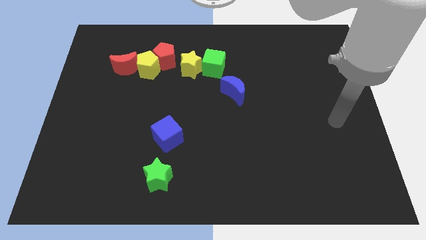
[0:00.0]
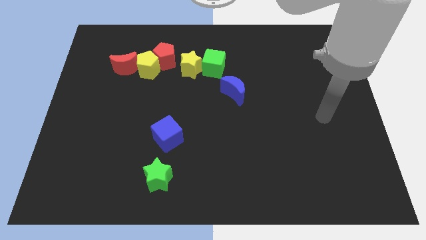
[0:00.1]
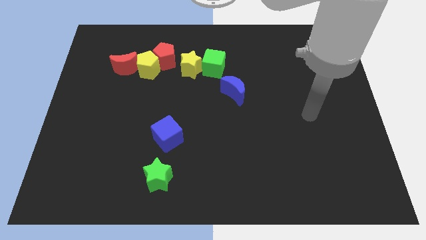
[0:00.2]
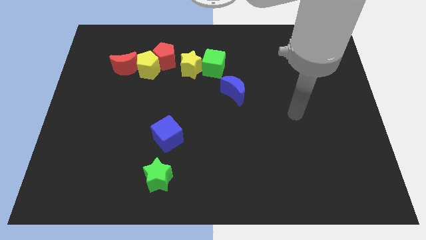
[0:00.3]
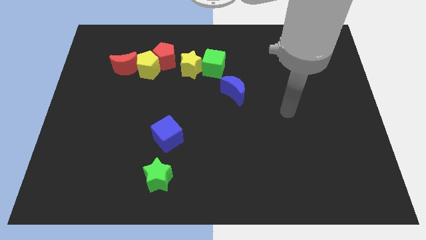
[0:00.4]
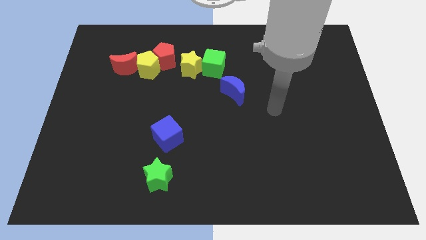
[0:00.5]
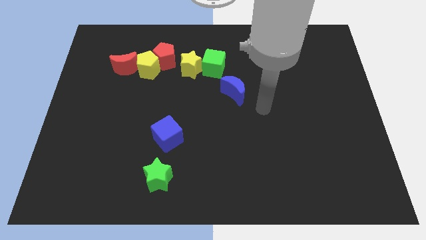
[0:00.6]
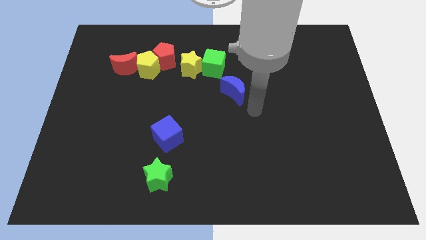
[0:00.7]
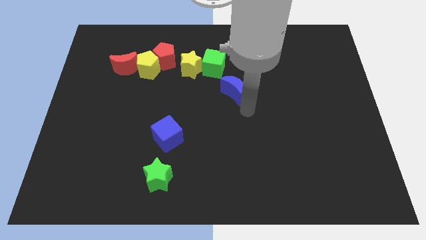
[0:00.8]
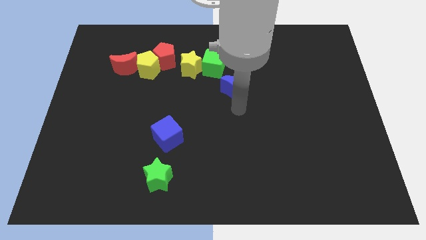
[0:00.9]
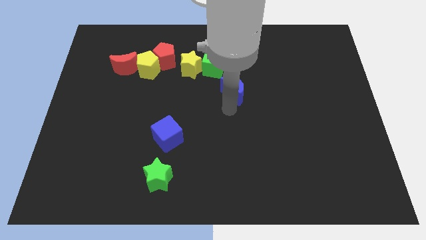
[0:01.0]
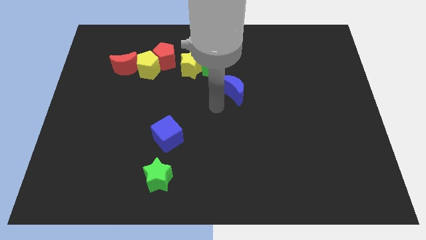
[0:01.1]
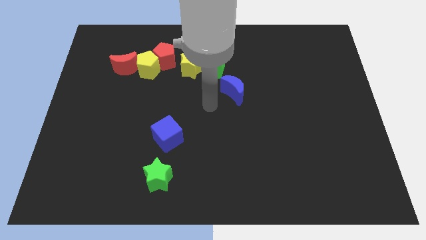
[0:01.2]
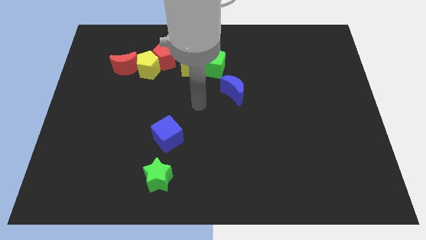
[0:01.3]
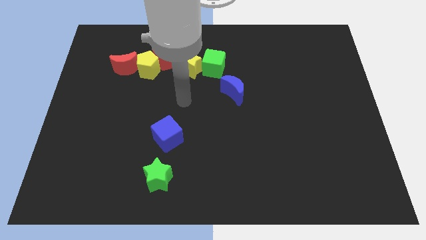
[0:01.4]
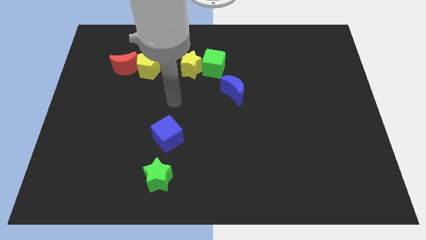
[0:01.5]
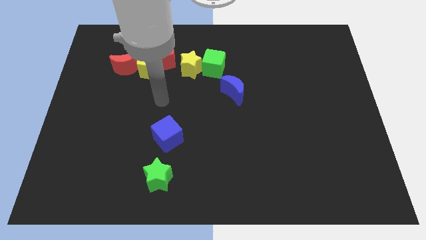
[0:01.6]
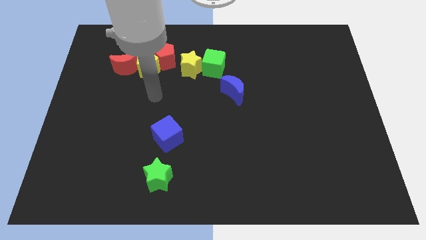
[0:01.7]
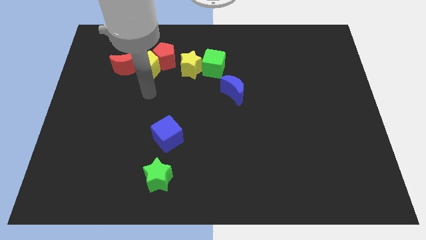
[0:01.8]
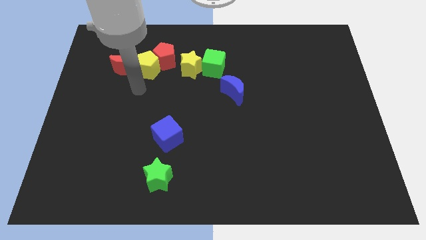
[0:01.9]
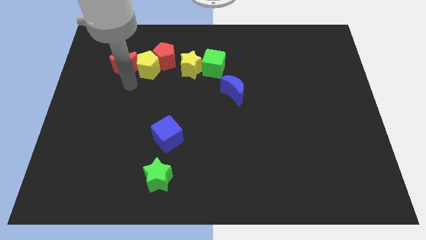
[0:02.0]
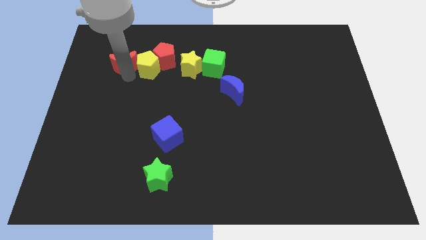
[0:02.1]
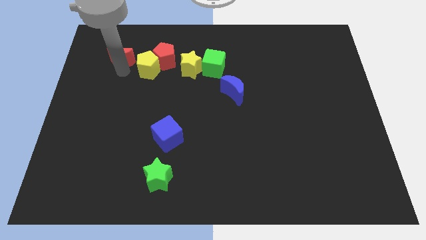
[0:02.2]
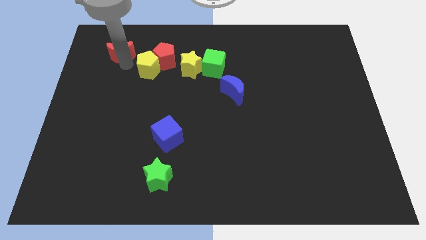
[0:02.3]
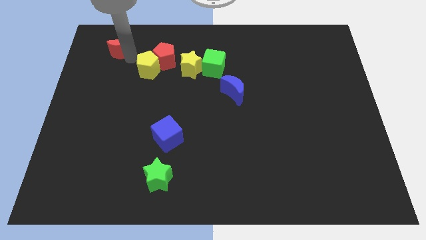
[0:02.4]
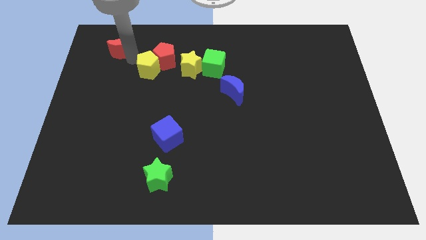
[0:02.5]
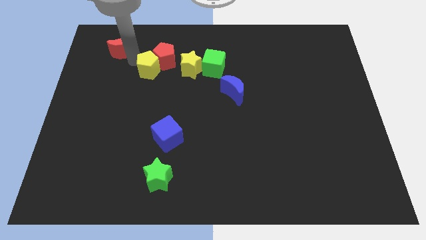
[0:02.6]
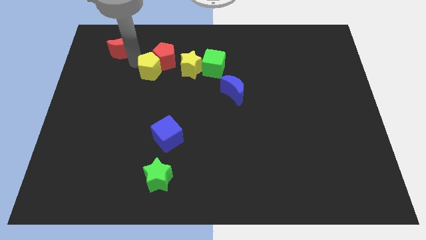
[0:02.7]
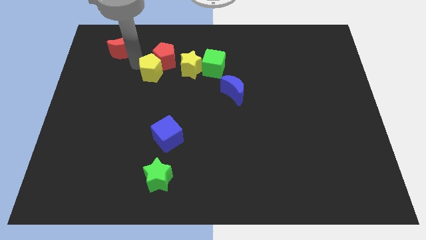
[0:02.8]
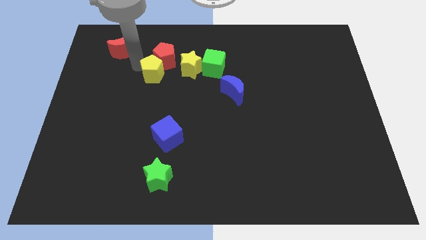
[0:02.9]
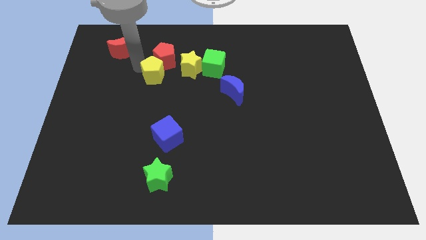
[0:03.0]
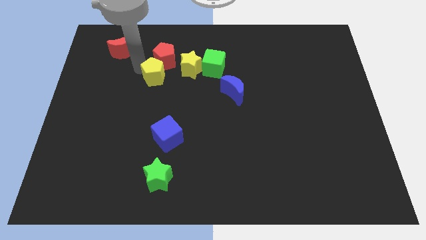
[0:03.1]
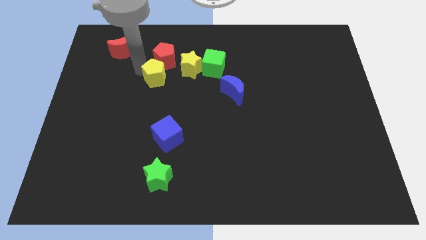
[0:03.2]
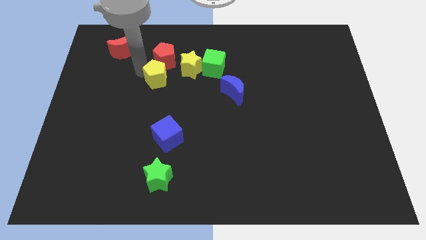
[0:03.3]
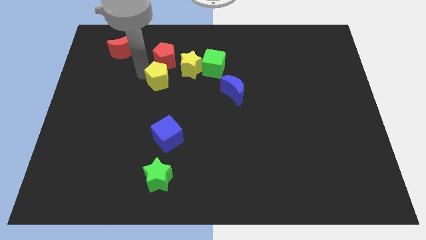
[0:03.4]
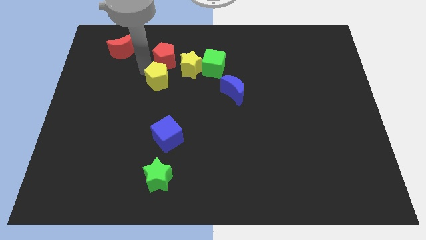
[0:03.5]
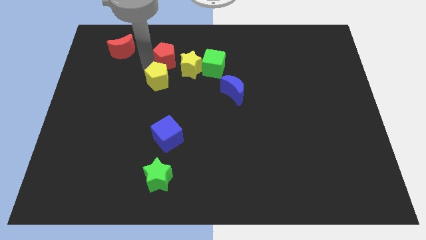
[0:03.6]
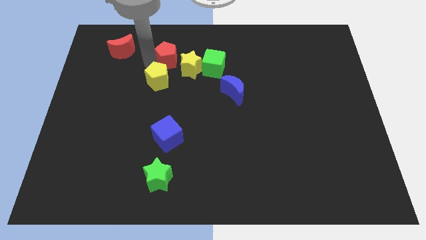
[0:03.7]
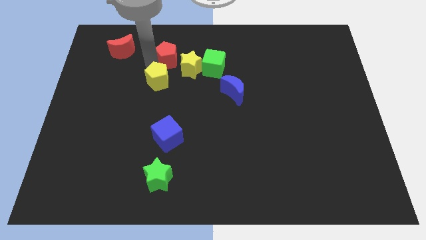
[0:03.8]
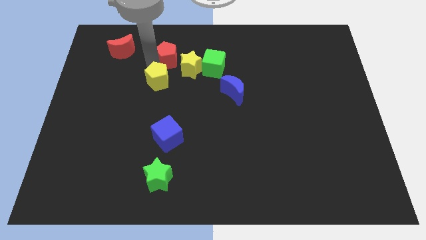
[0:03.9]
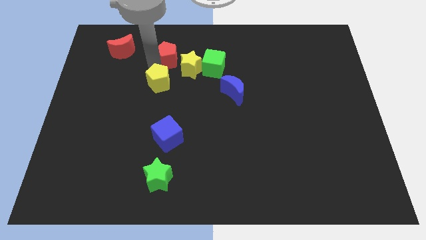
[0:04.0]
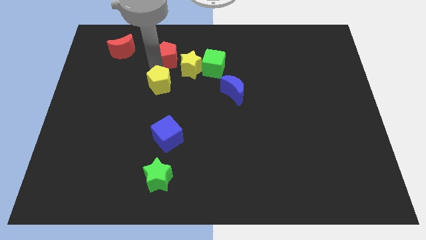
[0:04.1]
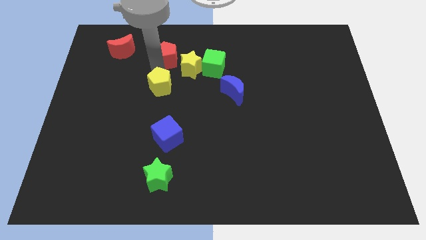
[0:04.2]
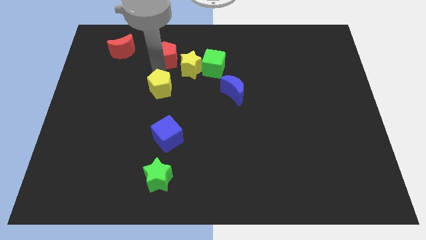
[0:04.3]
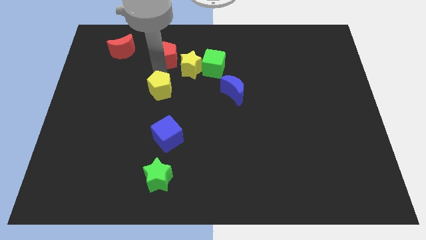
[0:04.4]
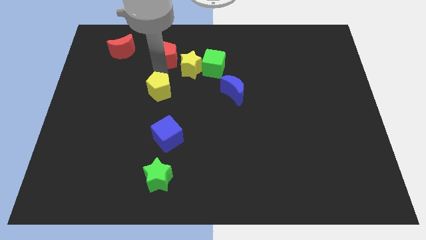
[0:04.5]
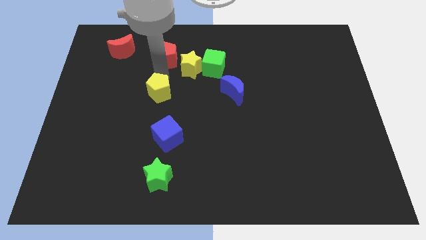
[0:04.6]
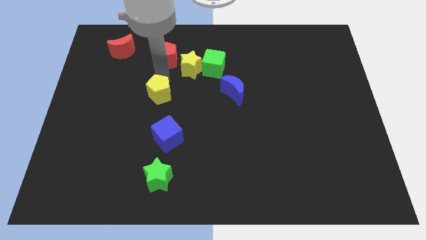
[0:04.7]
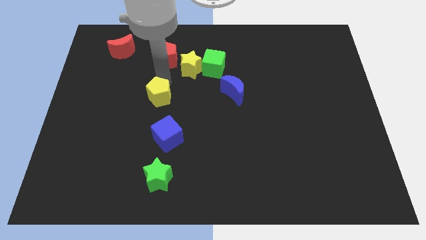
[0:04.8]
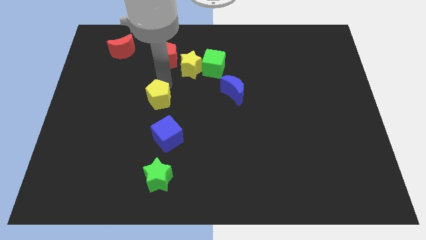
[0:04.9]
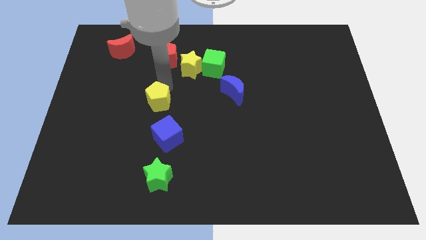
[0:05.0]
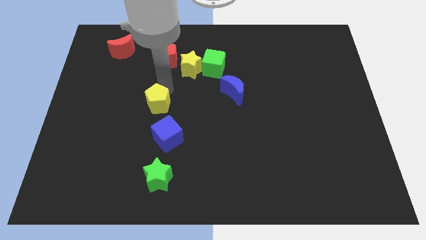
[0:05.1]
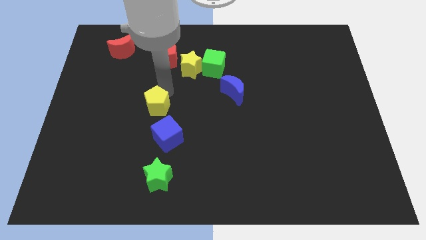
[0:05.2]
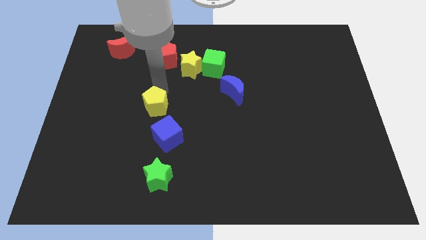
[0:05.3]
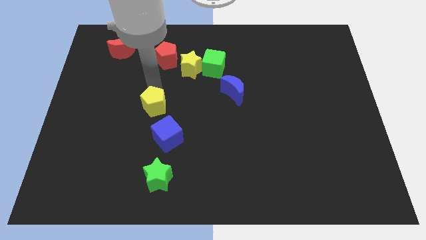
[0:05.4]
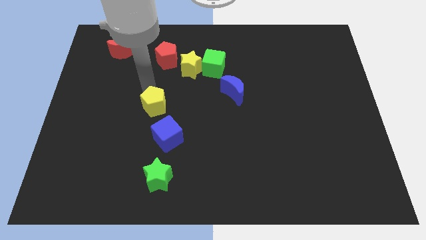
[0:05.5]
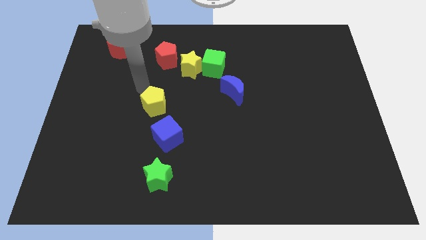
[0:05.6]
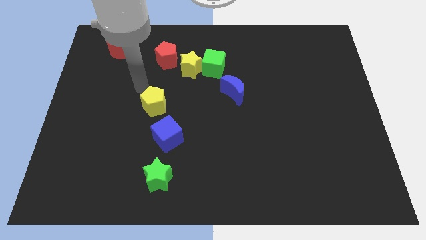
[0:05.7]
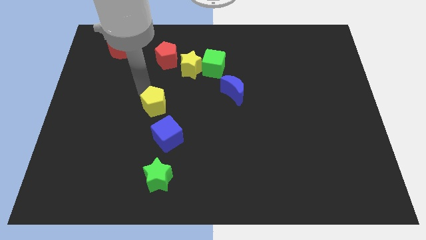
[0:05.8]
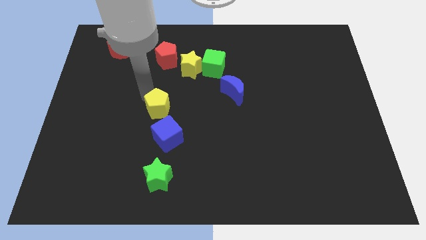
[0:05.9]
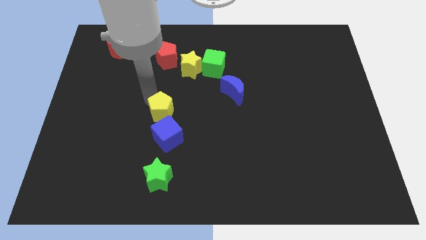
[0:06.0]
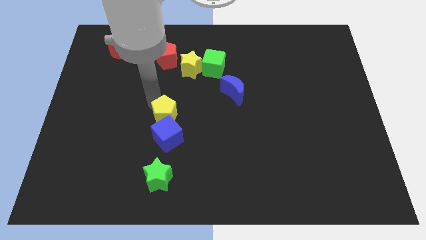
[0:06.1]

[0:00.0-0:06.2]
push the yellow pentagon close to the blue cube

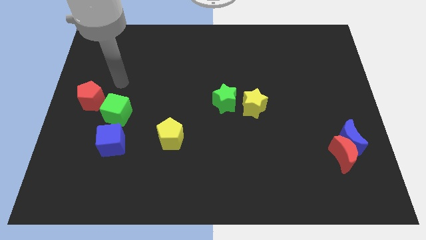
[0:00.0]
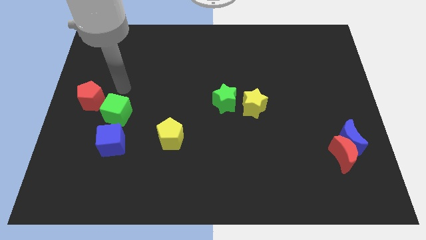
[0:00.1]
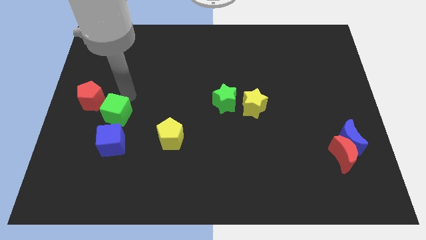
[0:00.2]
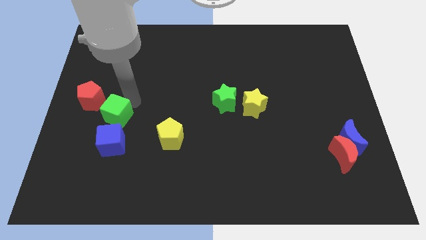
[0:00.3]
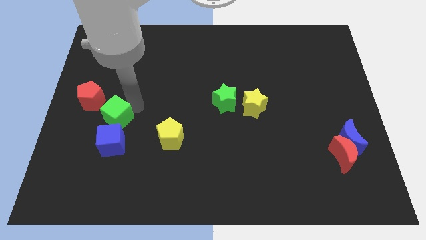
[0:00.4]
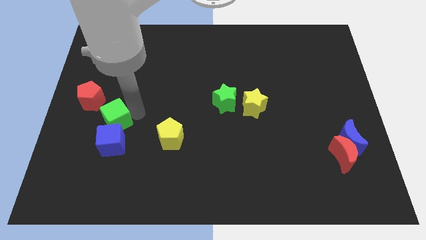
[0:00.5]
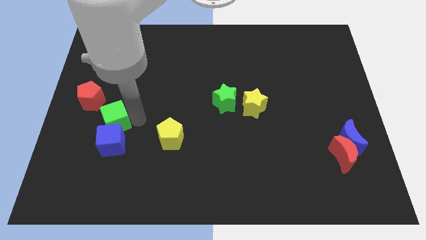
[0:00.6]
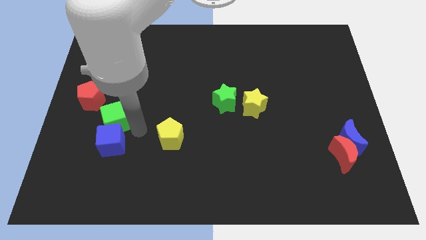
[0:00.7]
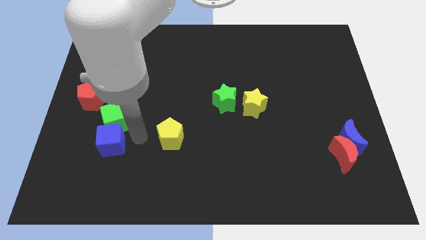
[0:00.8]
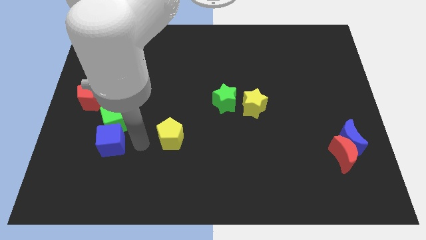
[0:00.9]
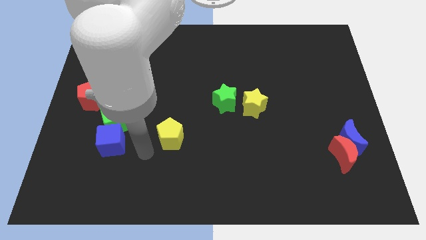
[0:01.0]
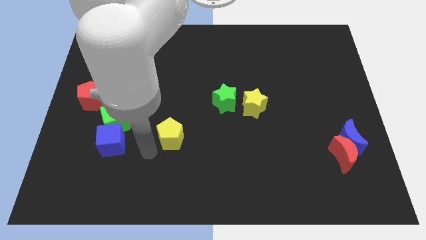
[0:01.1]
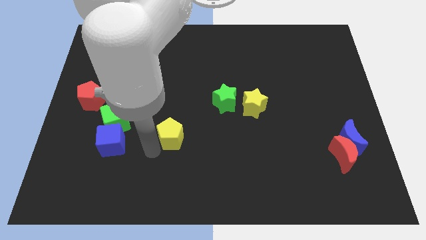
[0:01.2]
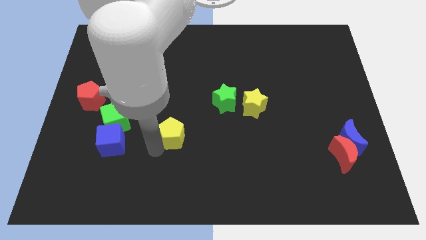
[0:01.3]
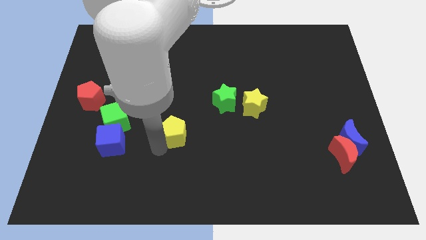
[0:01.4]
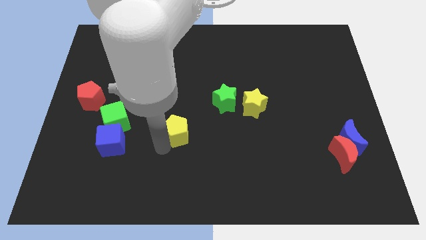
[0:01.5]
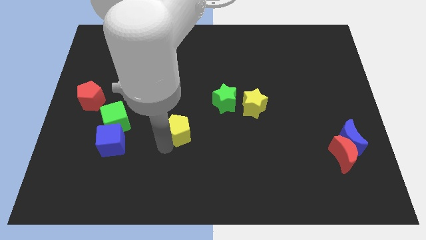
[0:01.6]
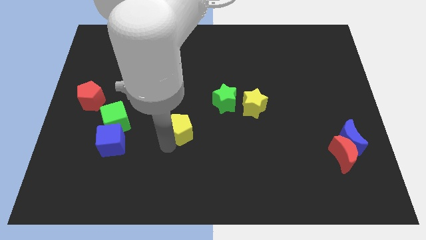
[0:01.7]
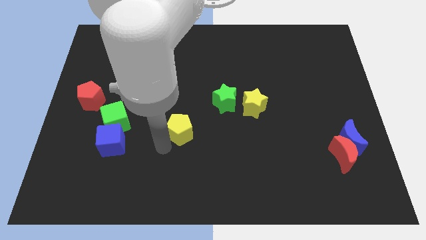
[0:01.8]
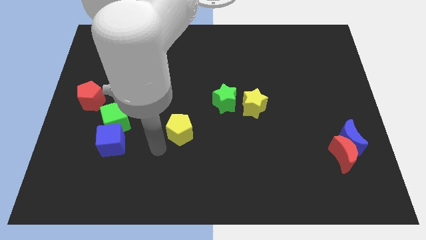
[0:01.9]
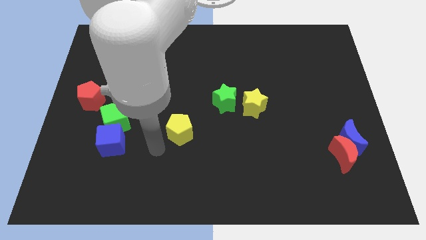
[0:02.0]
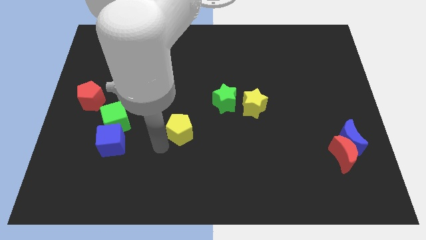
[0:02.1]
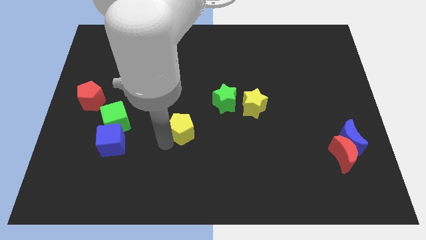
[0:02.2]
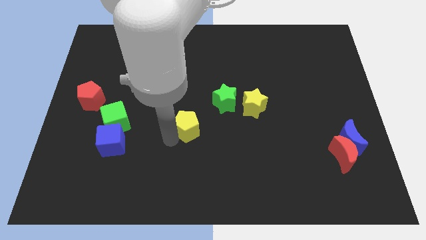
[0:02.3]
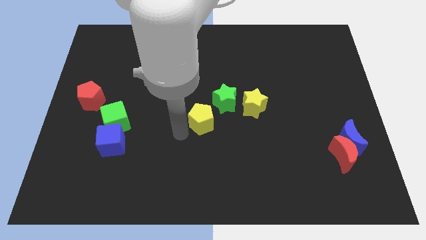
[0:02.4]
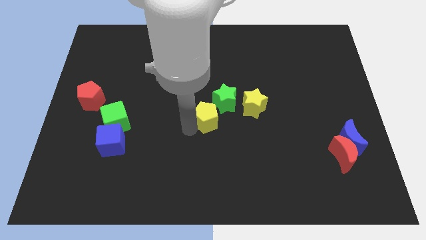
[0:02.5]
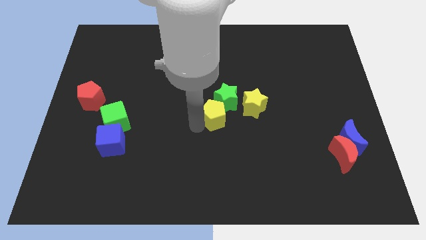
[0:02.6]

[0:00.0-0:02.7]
slide the yellow pentagon towards the green star
